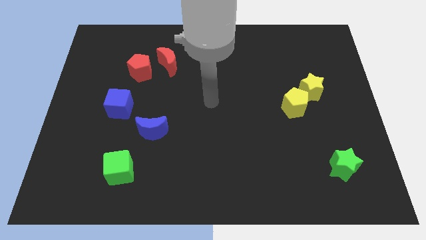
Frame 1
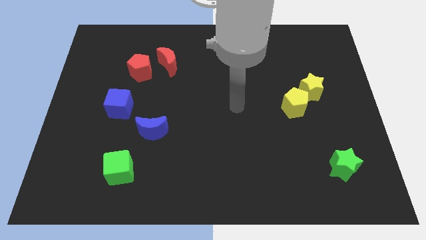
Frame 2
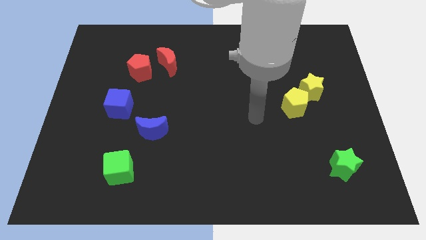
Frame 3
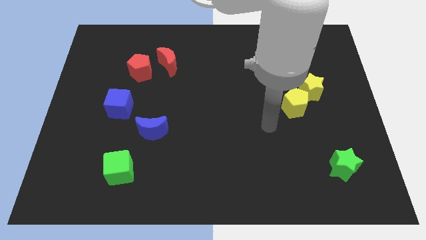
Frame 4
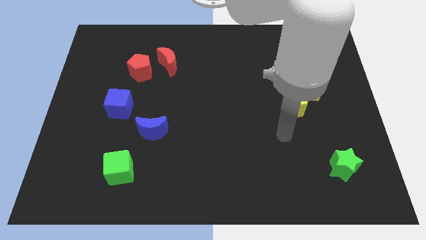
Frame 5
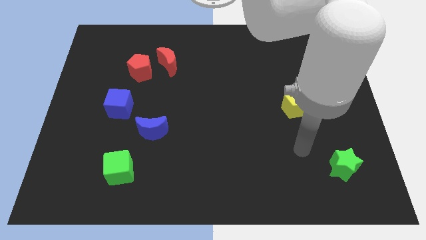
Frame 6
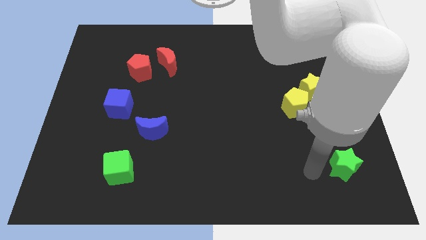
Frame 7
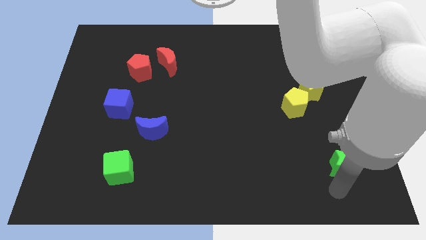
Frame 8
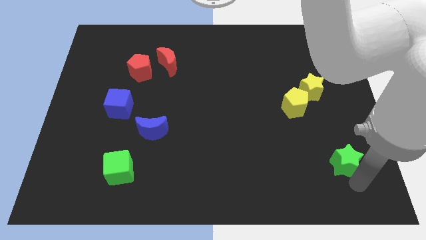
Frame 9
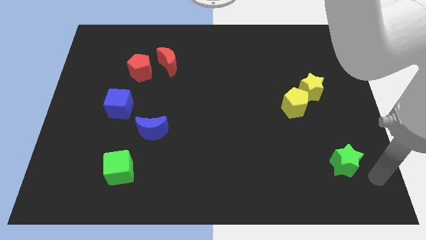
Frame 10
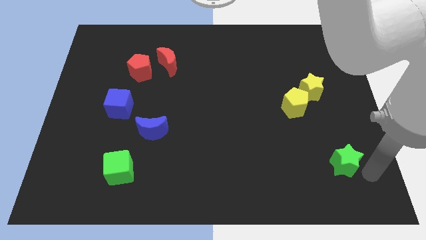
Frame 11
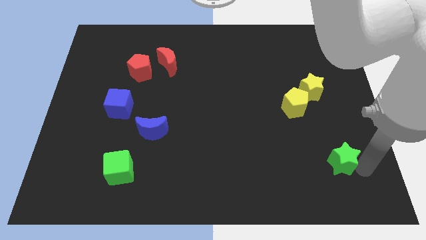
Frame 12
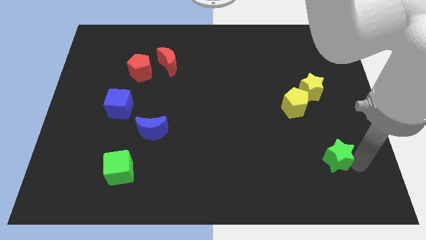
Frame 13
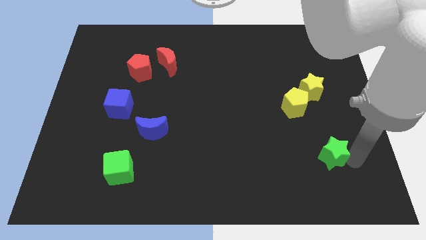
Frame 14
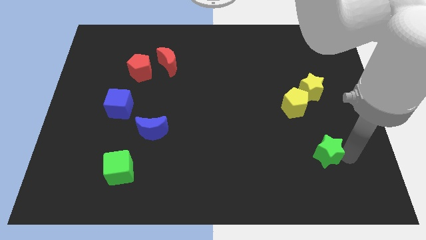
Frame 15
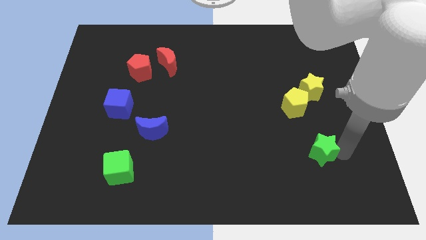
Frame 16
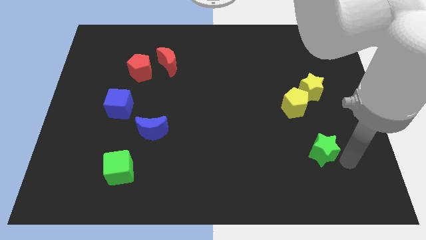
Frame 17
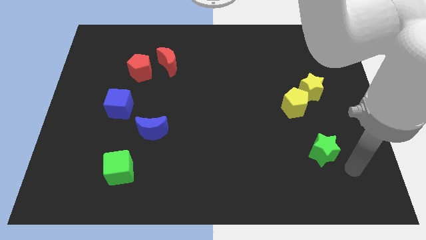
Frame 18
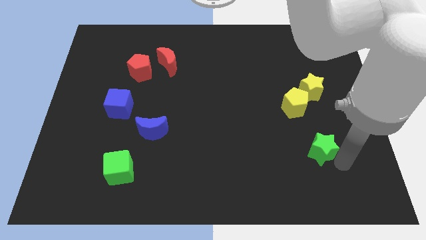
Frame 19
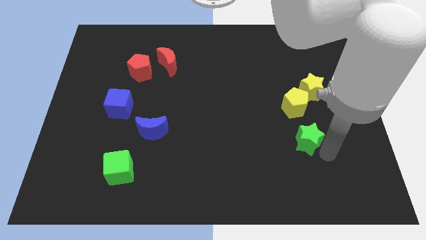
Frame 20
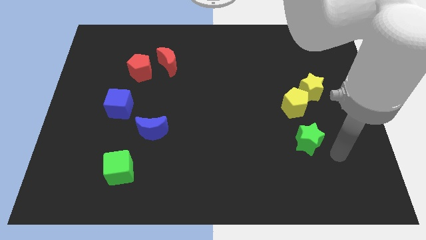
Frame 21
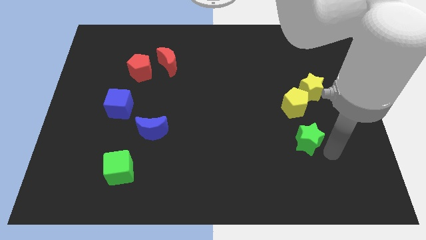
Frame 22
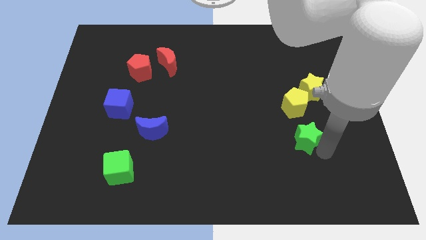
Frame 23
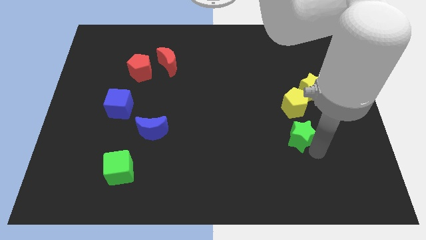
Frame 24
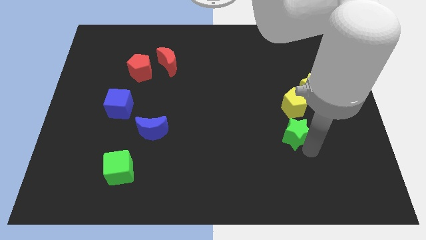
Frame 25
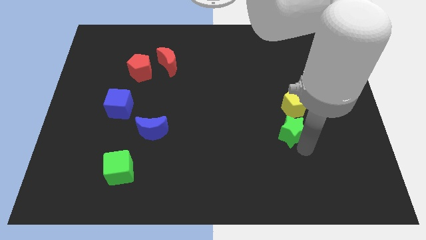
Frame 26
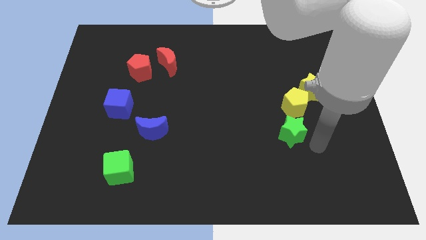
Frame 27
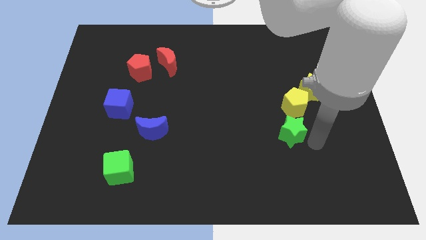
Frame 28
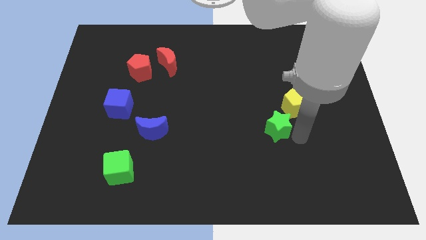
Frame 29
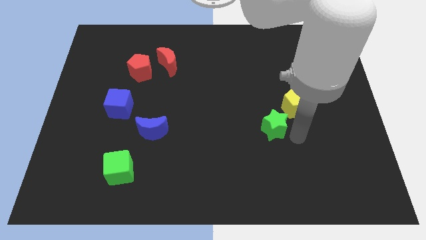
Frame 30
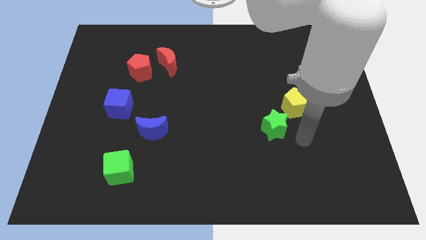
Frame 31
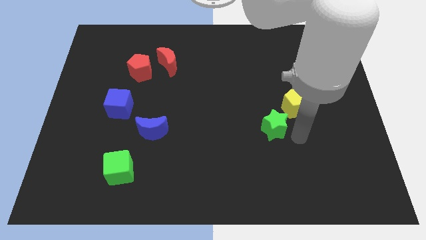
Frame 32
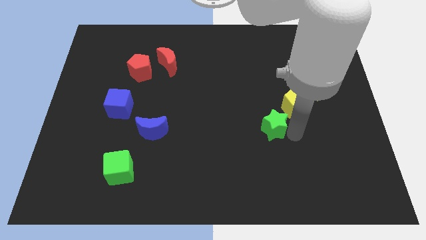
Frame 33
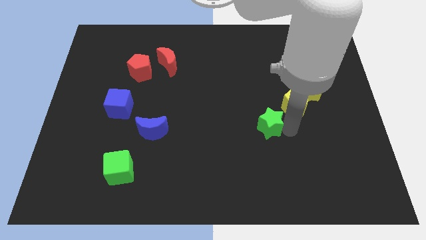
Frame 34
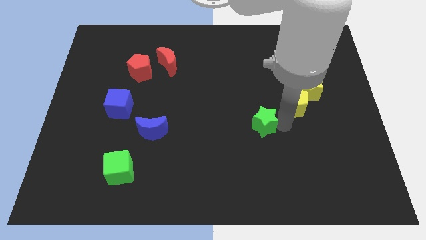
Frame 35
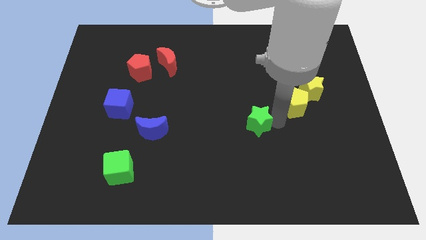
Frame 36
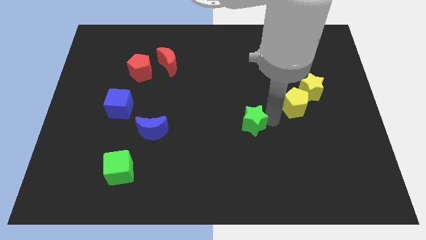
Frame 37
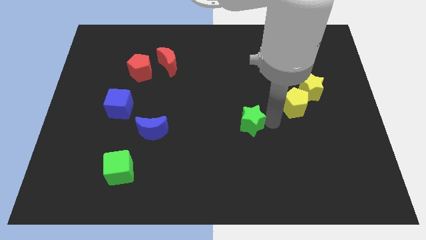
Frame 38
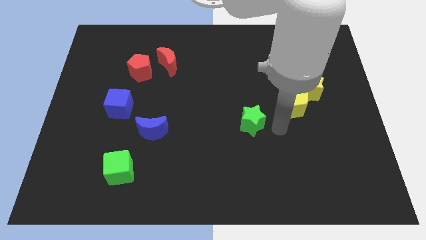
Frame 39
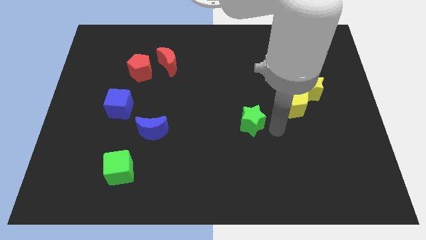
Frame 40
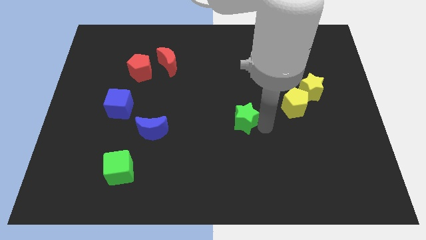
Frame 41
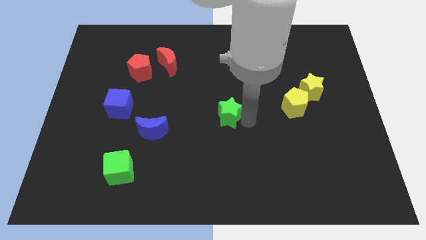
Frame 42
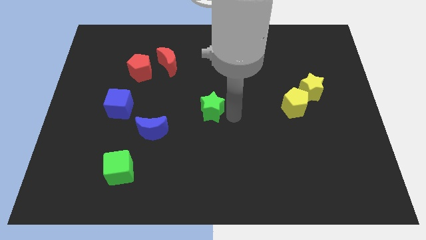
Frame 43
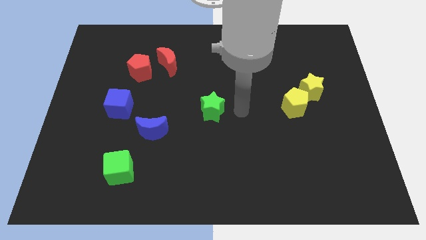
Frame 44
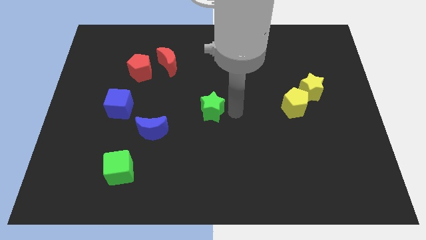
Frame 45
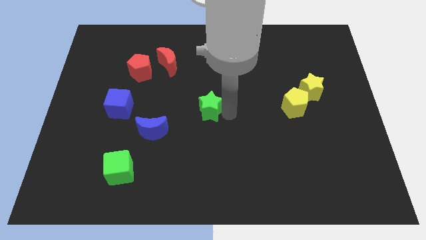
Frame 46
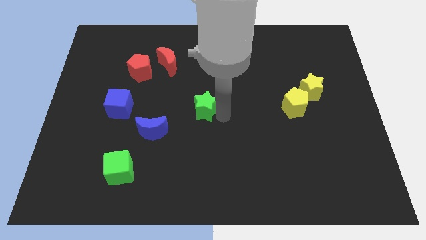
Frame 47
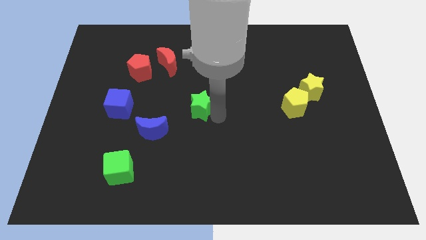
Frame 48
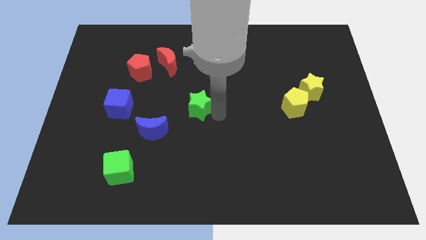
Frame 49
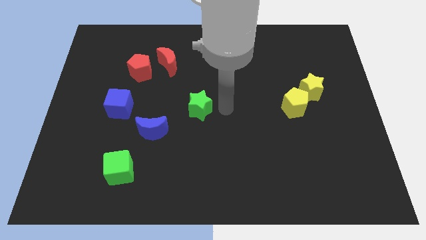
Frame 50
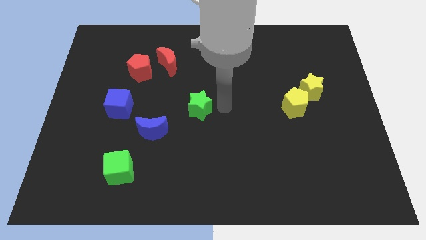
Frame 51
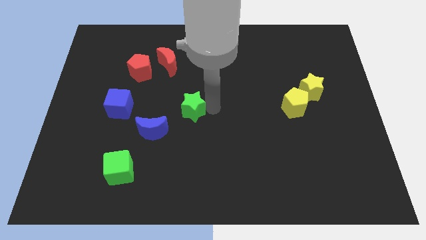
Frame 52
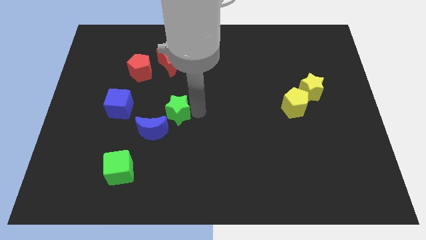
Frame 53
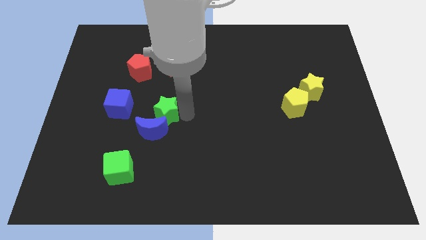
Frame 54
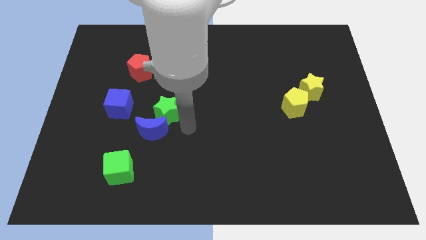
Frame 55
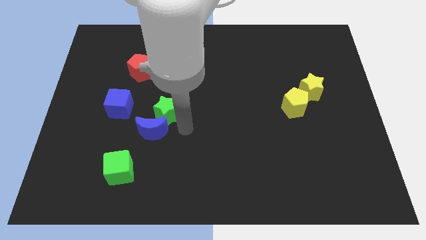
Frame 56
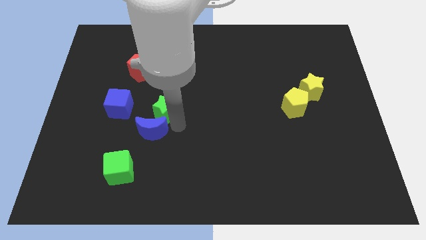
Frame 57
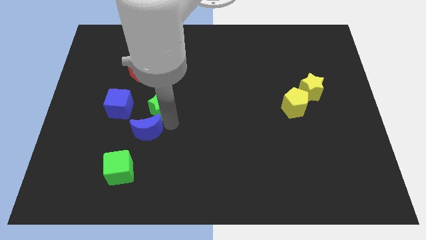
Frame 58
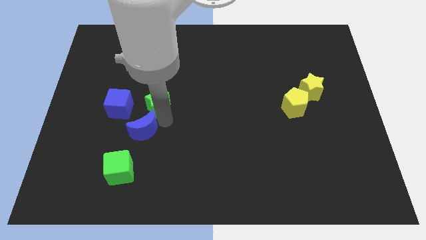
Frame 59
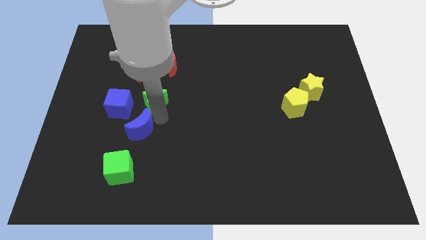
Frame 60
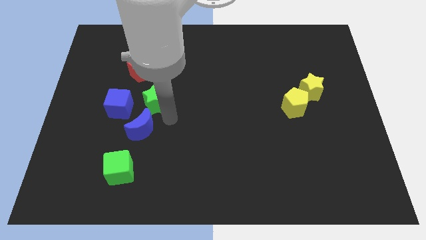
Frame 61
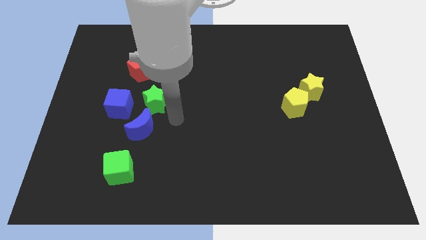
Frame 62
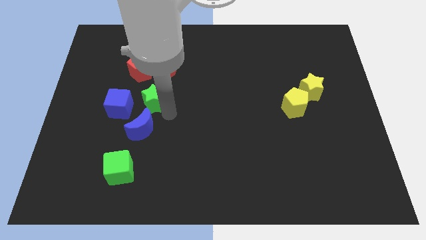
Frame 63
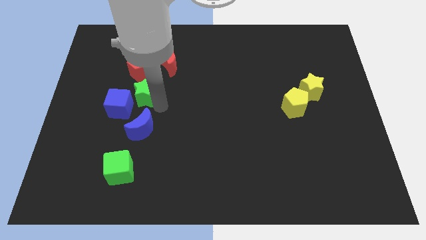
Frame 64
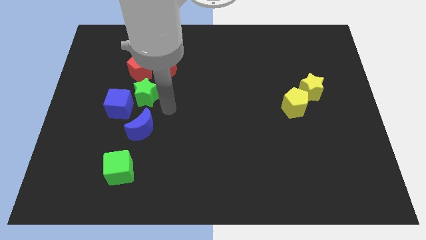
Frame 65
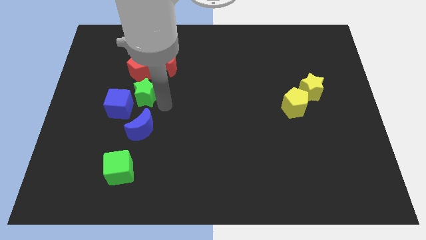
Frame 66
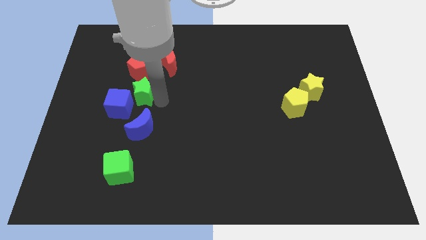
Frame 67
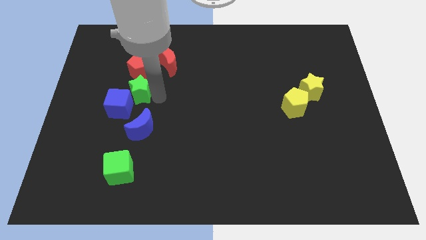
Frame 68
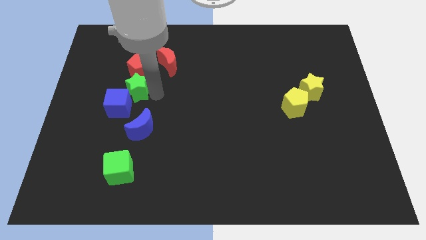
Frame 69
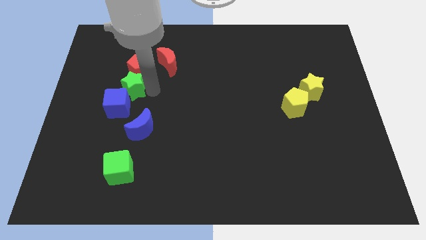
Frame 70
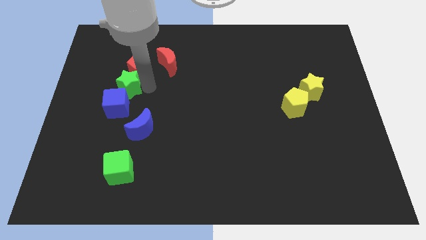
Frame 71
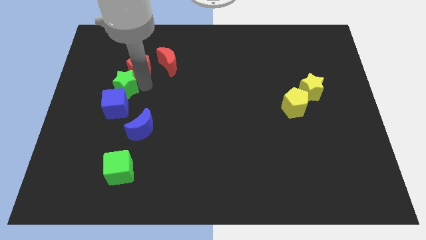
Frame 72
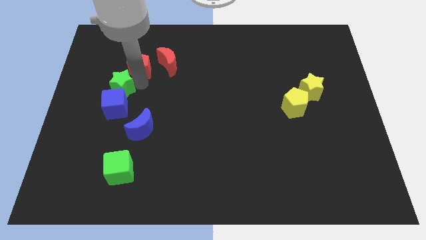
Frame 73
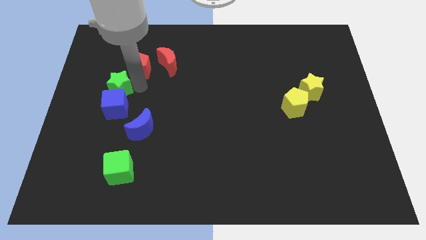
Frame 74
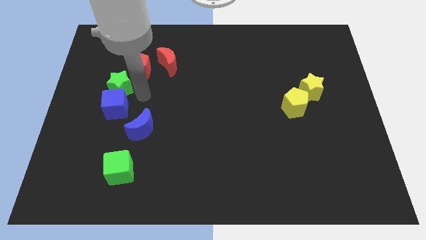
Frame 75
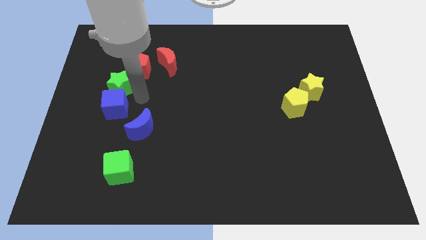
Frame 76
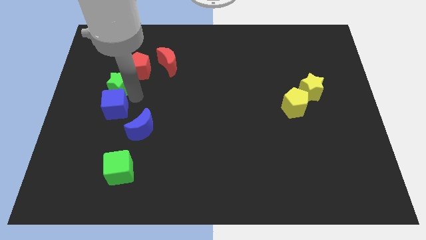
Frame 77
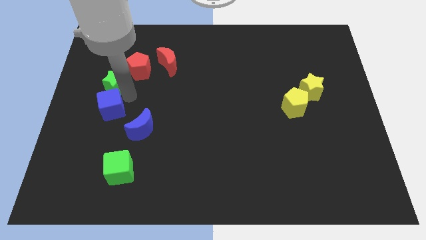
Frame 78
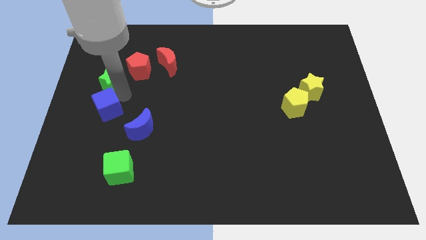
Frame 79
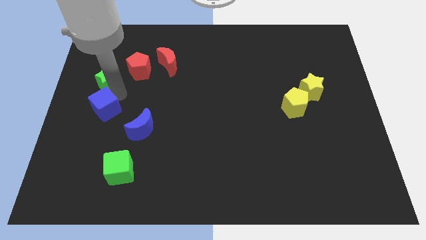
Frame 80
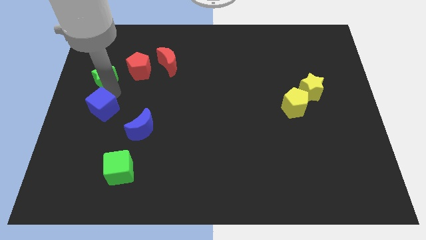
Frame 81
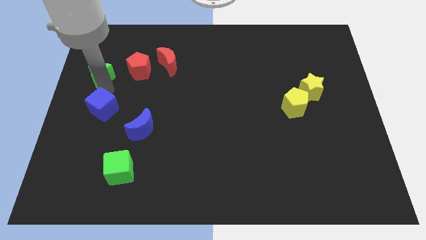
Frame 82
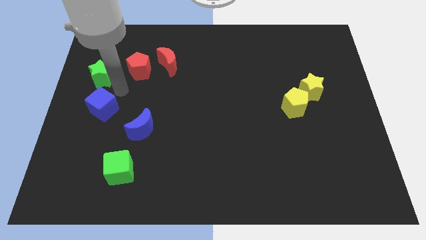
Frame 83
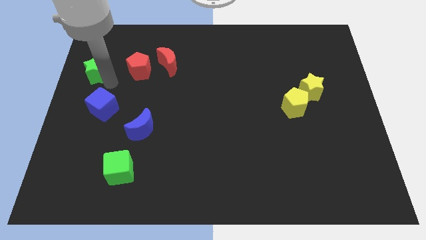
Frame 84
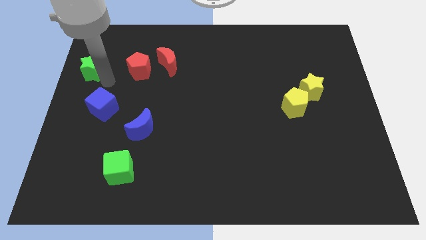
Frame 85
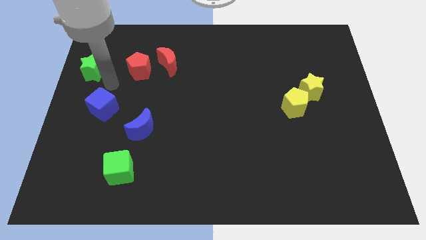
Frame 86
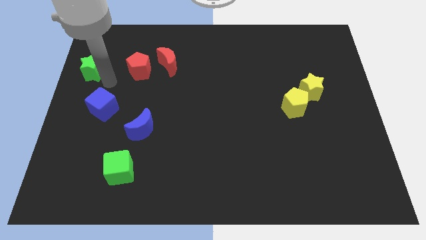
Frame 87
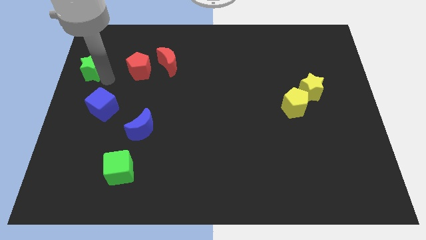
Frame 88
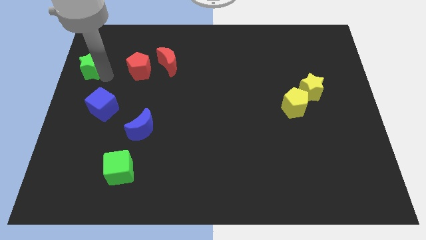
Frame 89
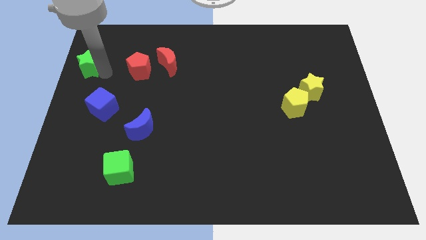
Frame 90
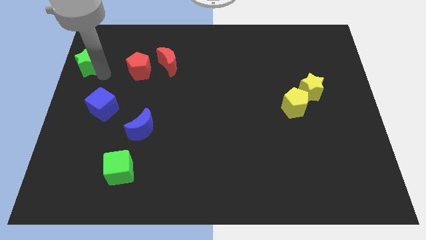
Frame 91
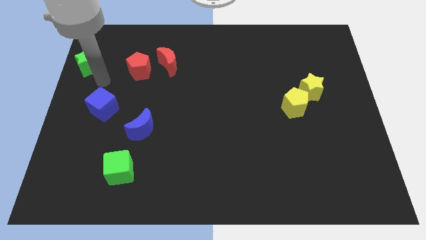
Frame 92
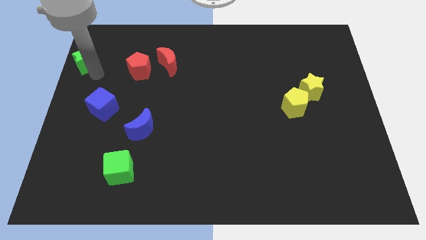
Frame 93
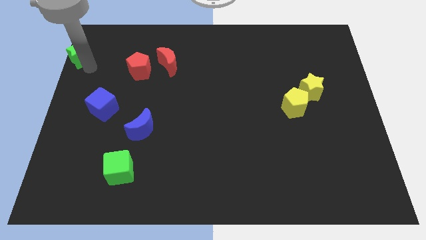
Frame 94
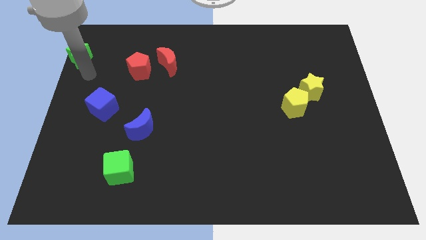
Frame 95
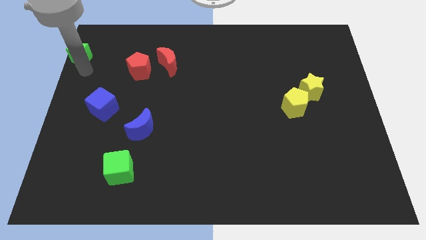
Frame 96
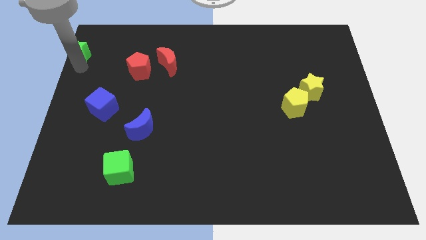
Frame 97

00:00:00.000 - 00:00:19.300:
slide the green star to the top left
